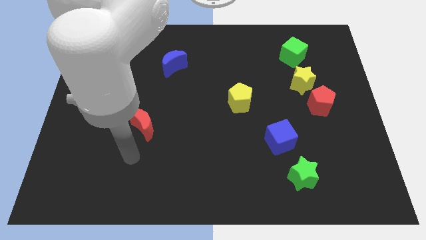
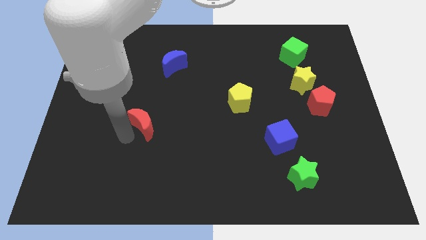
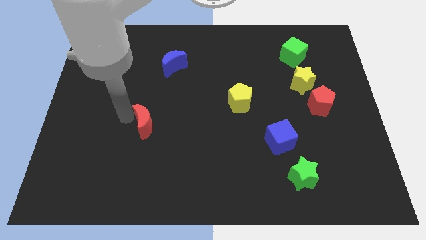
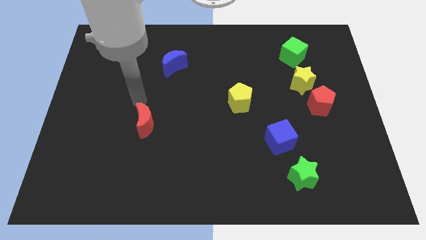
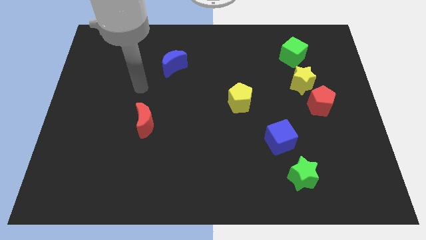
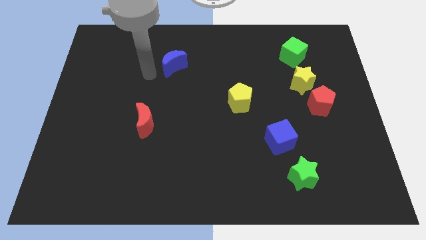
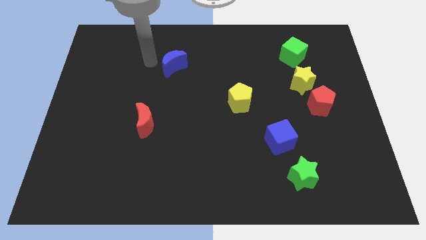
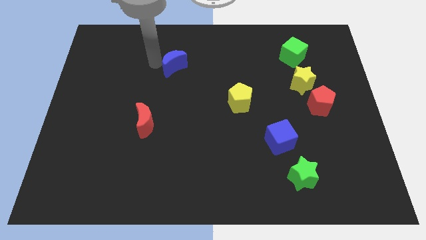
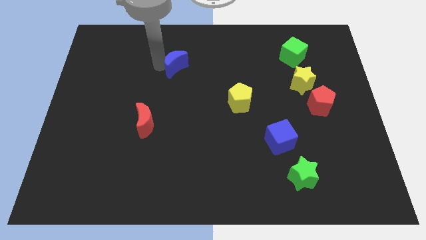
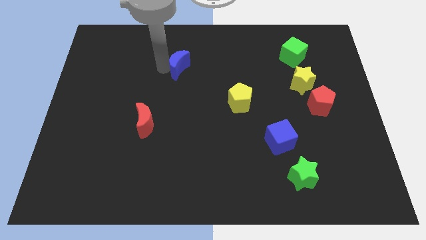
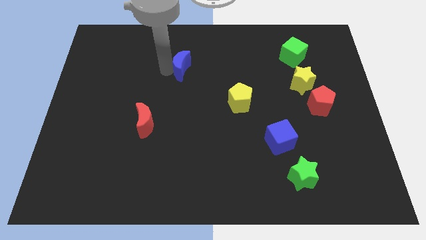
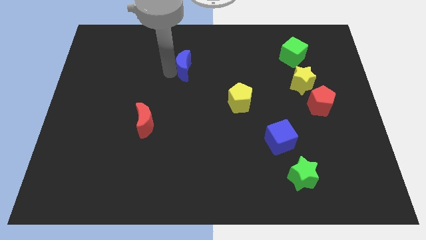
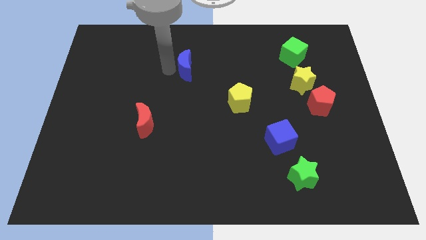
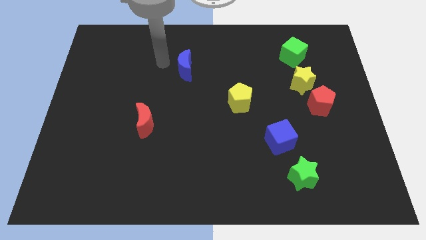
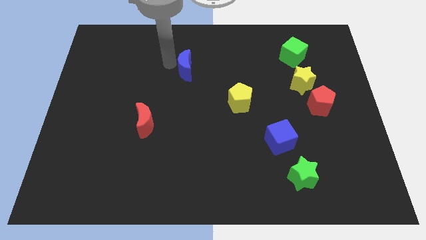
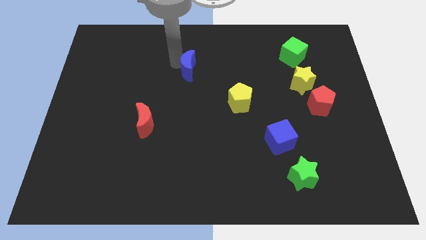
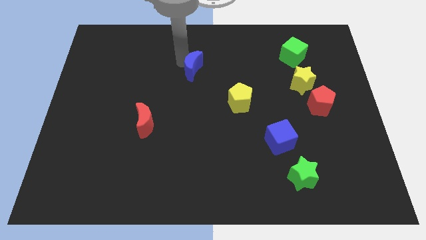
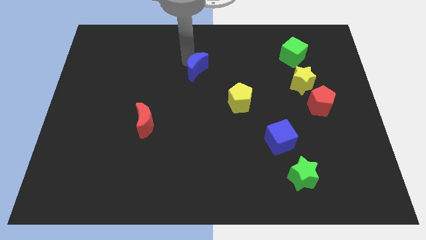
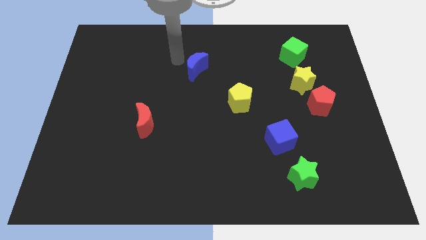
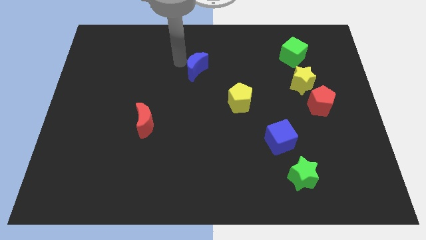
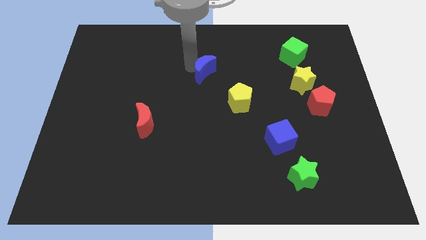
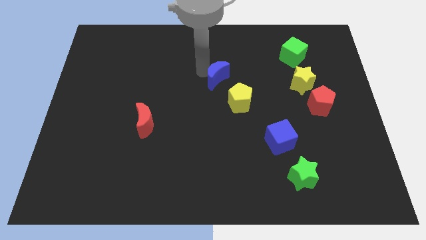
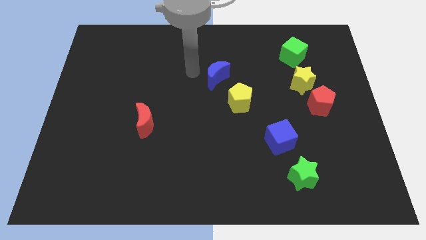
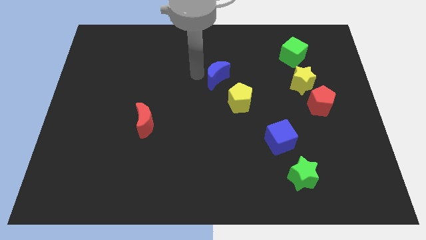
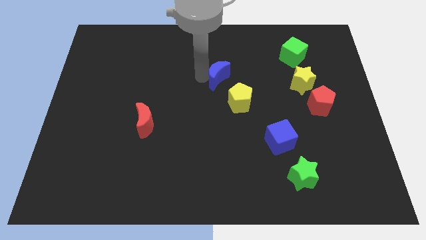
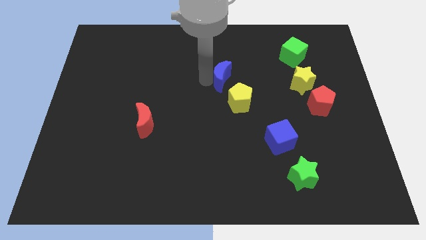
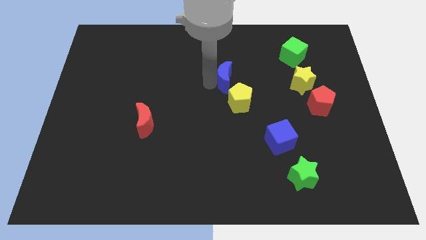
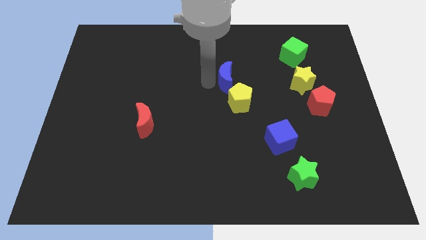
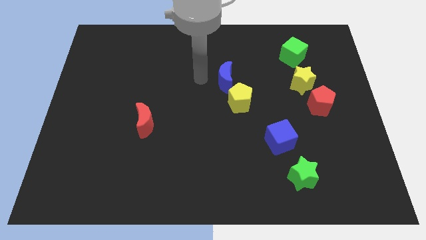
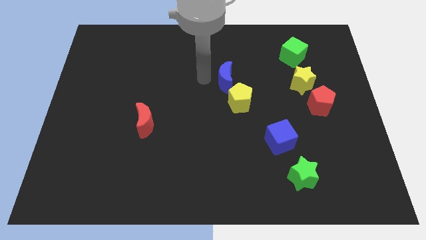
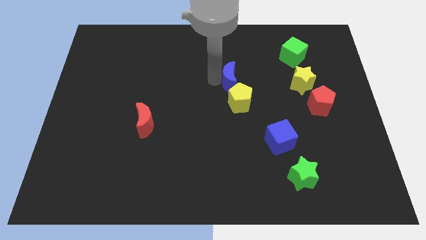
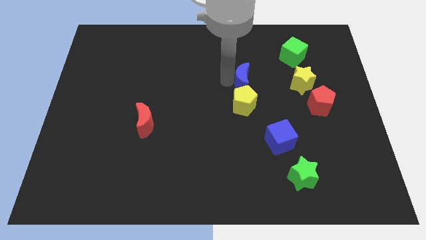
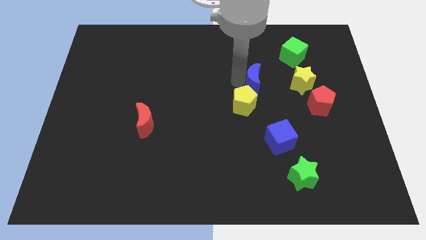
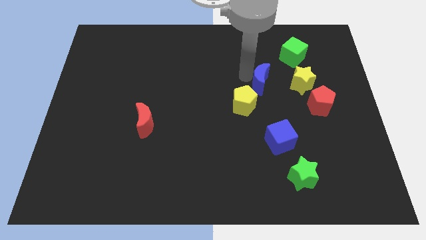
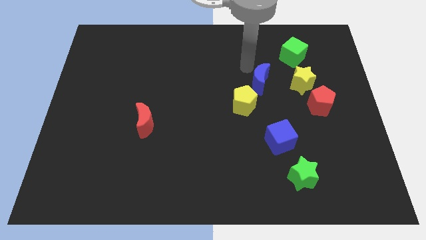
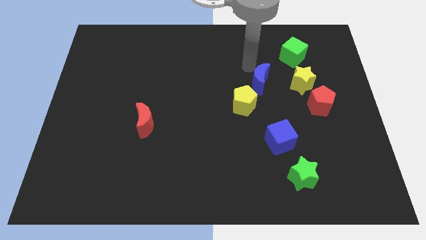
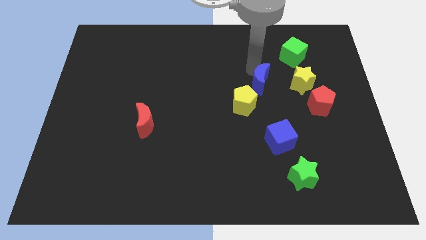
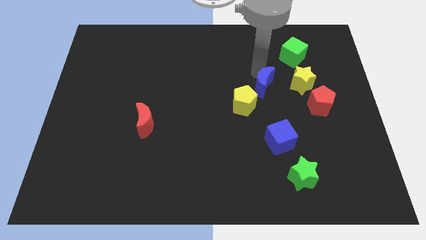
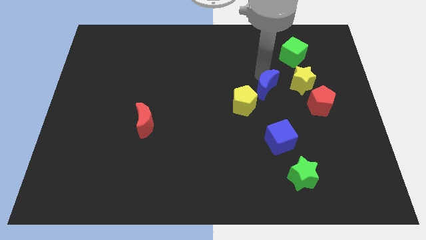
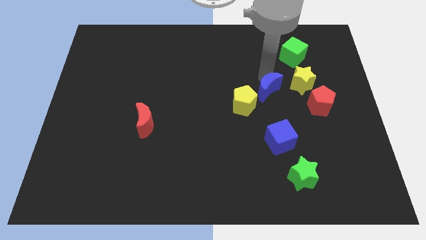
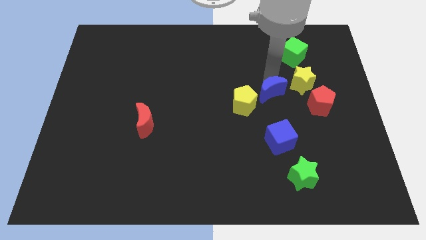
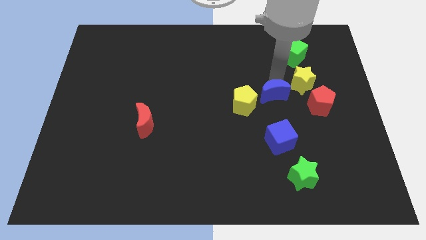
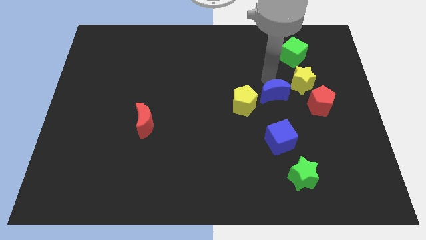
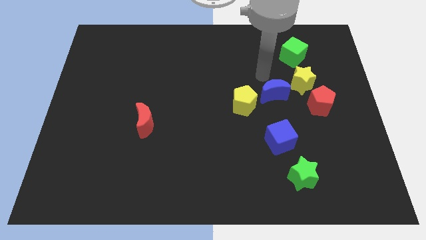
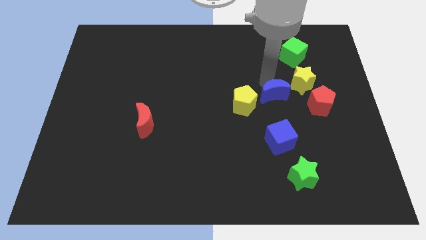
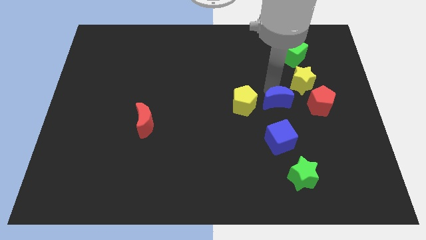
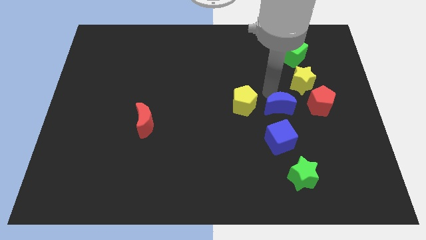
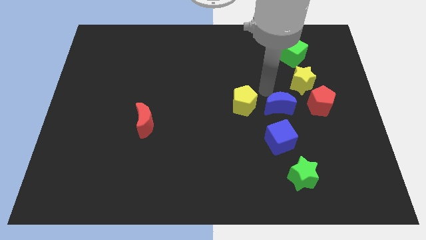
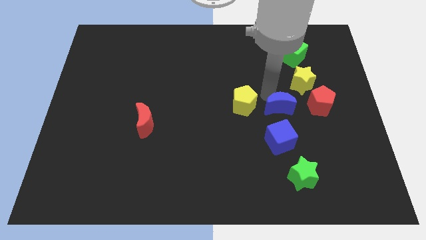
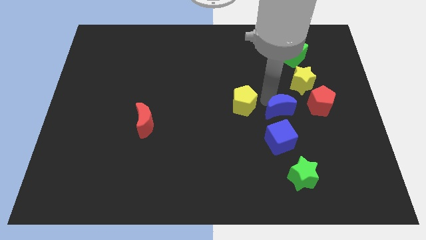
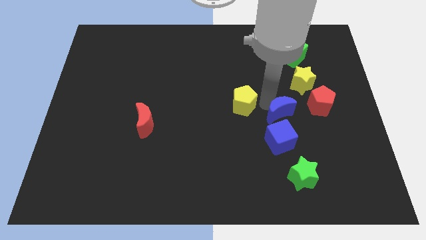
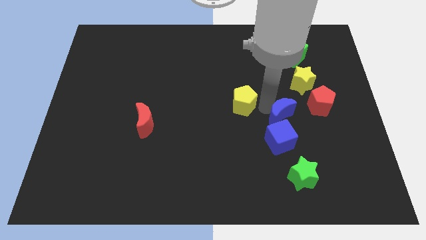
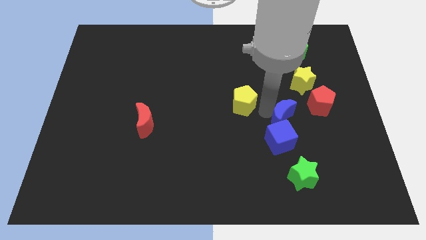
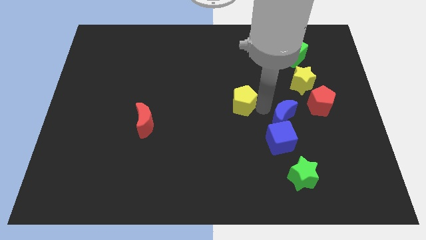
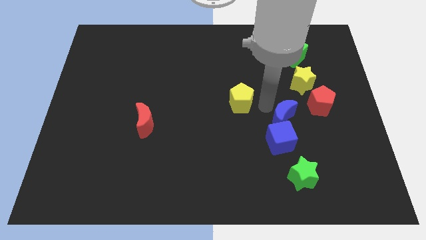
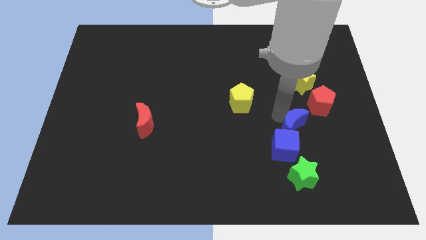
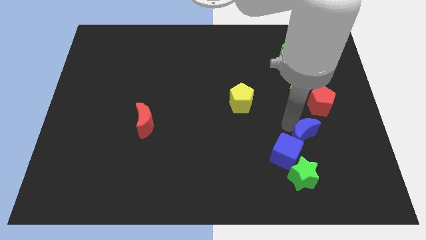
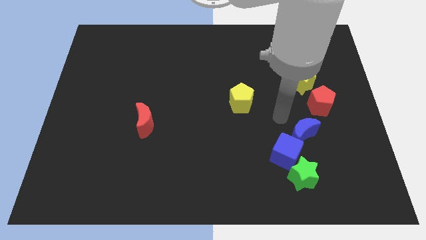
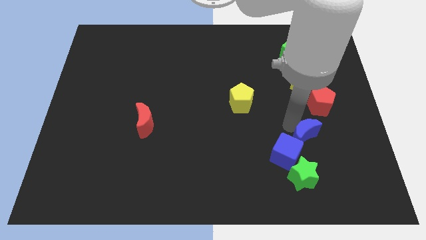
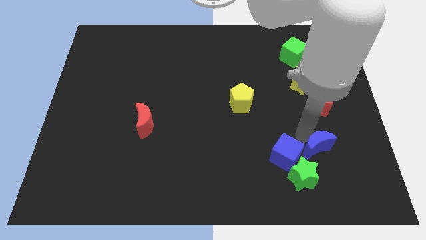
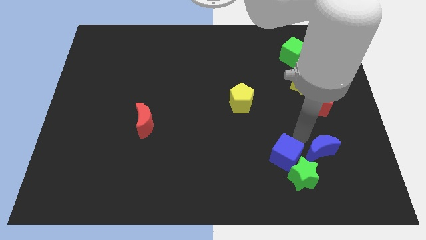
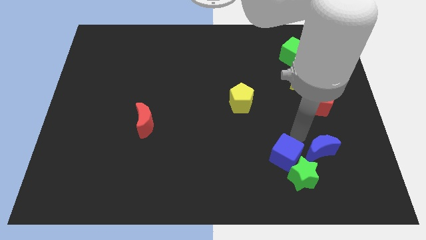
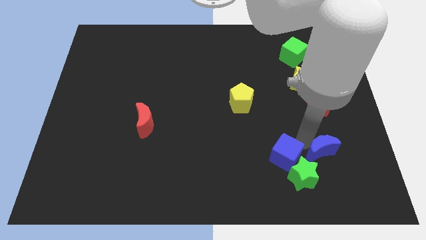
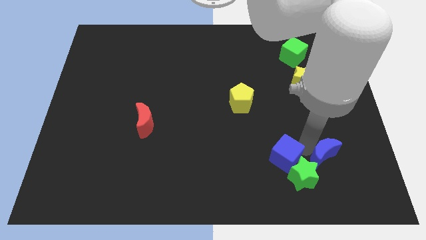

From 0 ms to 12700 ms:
push the blue moon to the right side of the green star

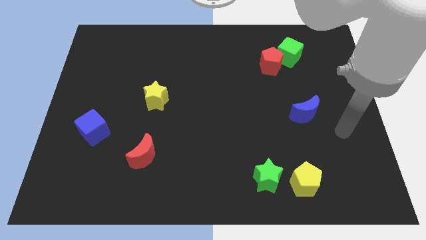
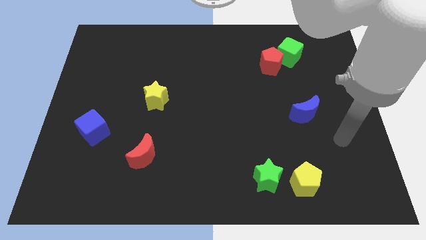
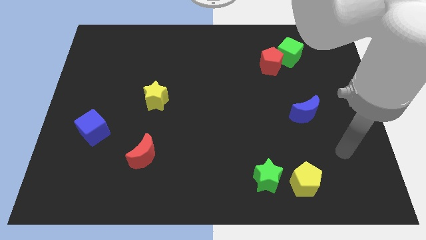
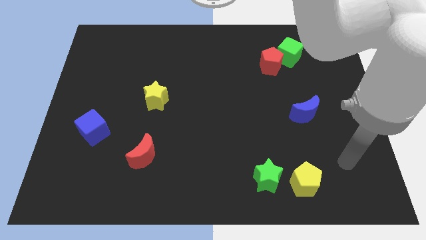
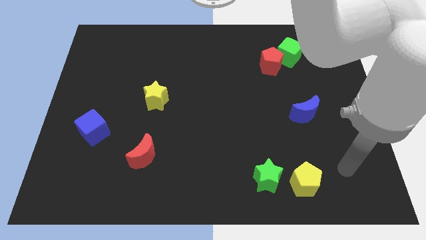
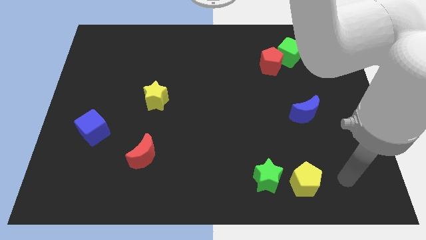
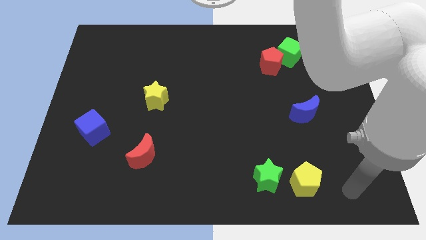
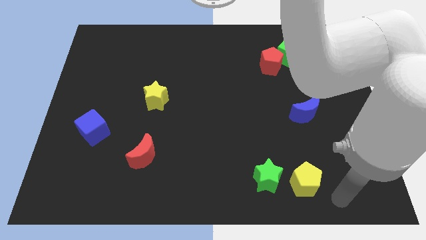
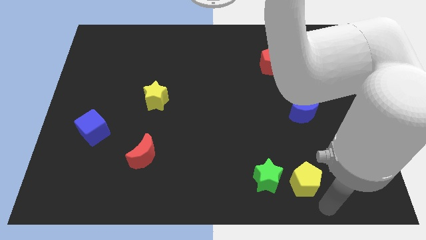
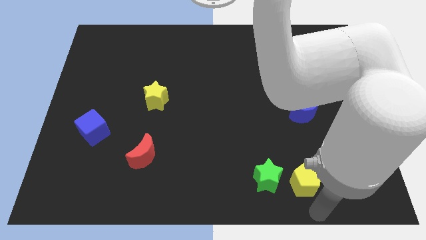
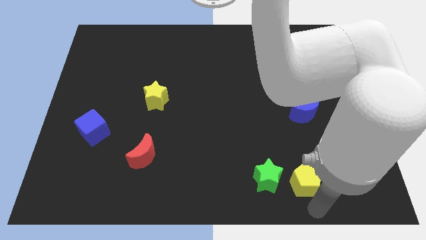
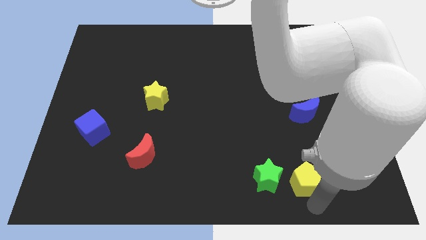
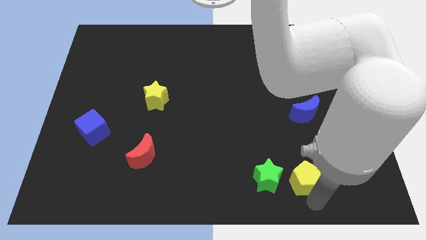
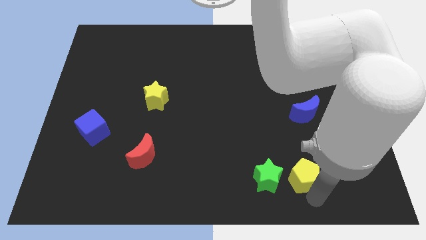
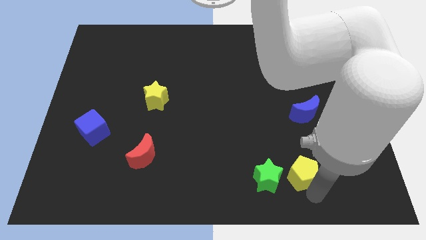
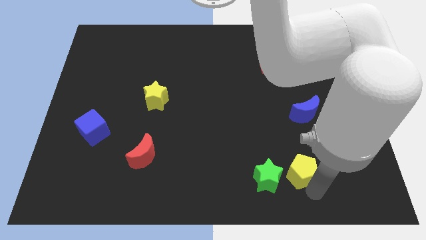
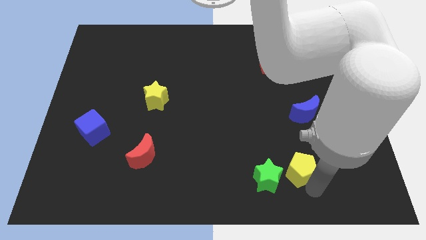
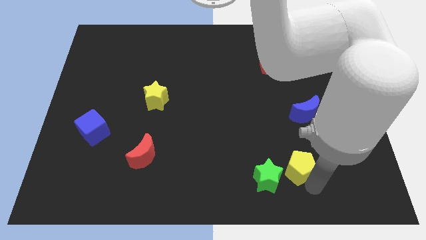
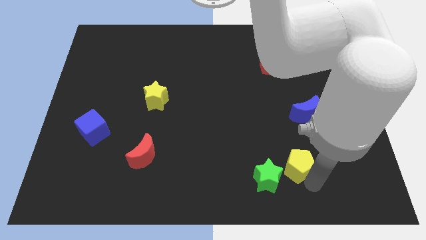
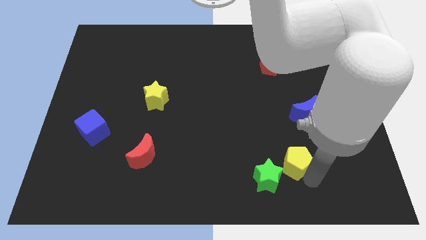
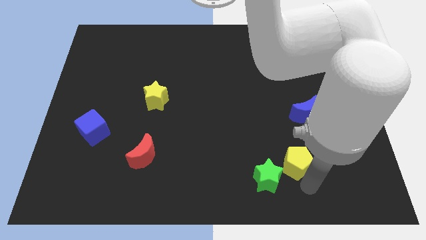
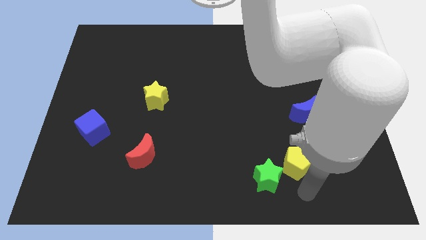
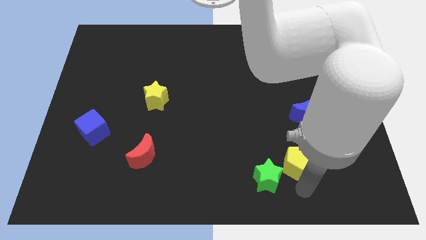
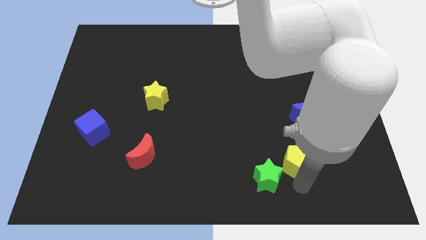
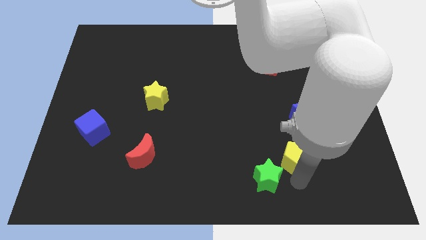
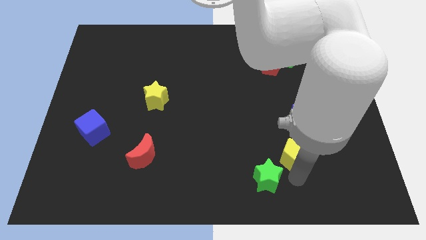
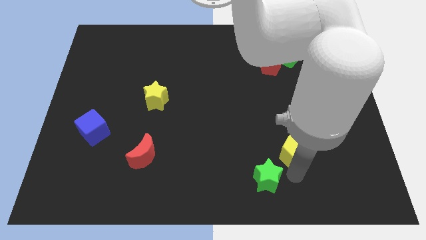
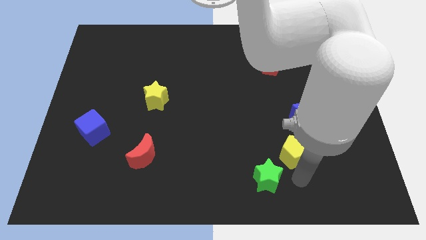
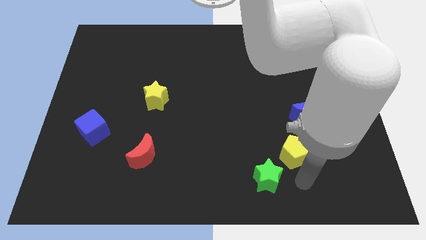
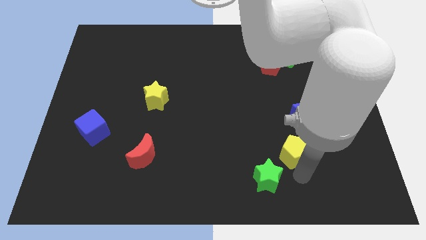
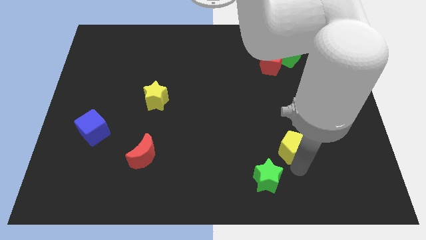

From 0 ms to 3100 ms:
move the yellow pentagon diagonally down and to the left of the blue moon
